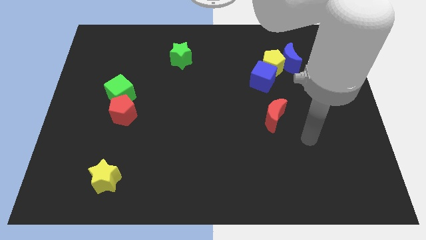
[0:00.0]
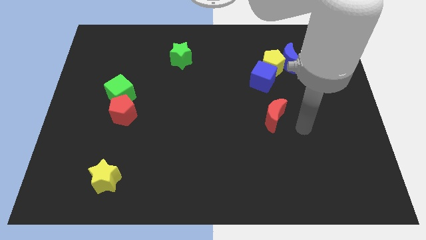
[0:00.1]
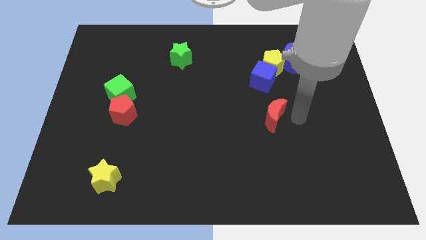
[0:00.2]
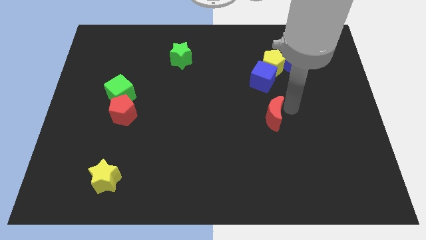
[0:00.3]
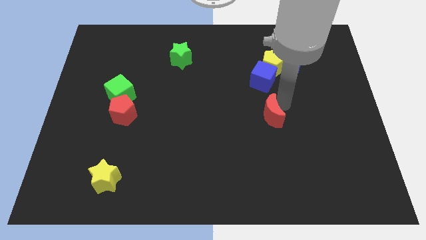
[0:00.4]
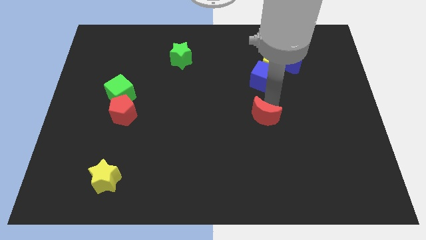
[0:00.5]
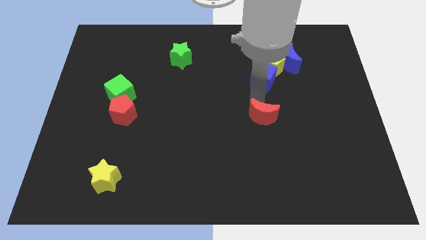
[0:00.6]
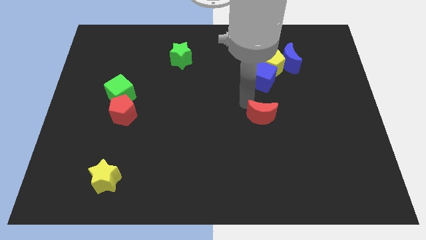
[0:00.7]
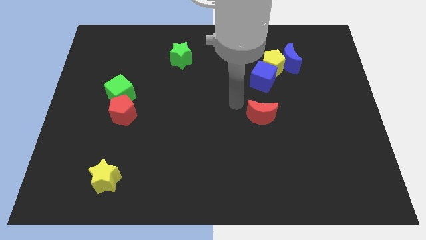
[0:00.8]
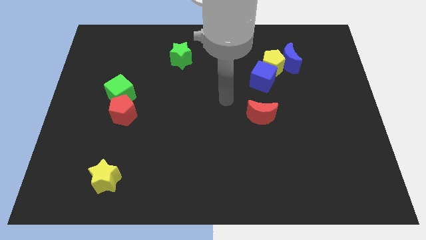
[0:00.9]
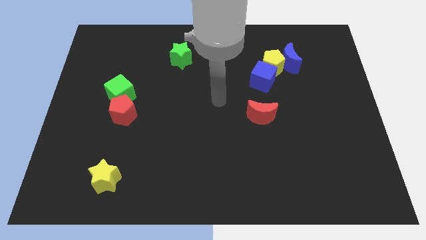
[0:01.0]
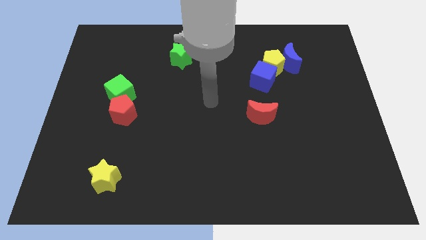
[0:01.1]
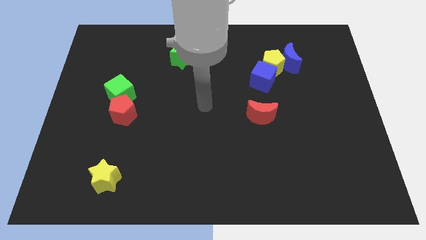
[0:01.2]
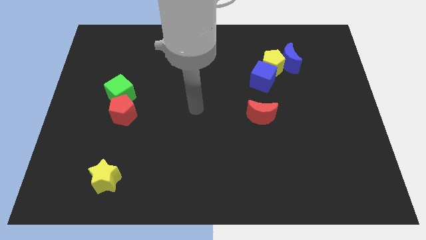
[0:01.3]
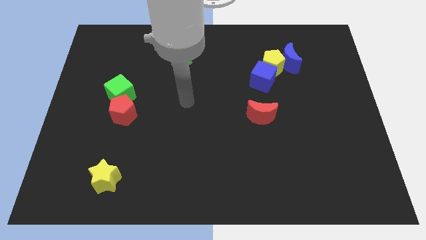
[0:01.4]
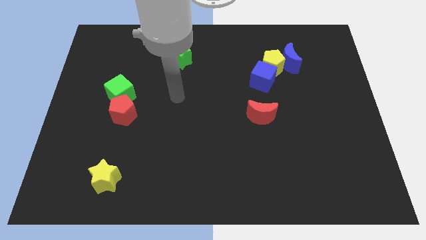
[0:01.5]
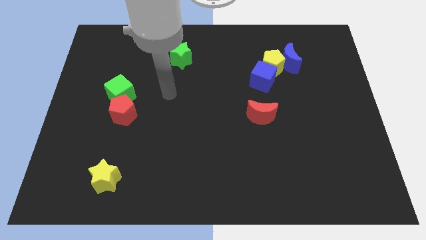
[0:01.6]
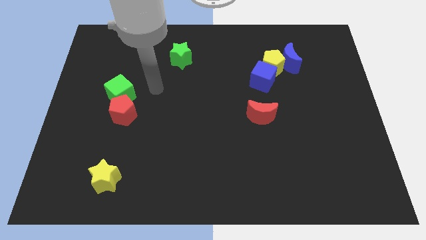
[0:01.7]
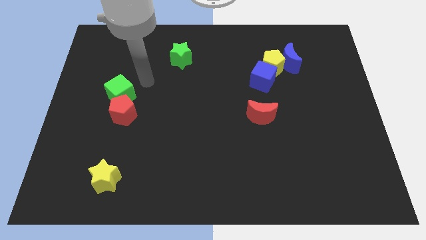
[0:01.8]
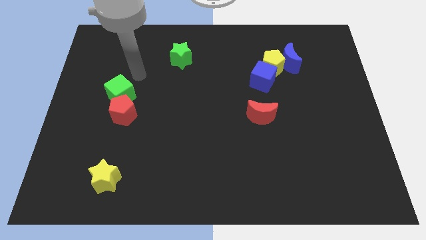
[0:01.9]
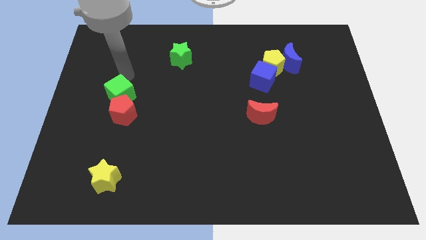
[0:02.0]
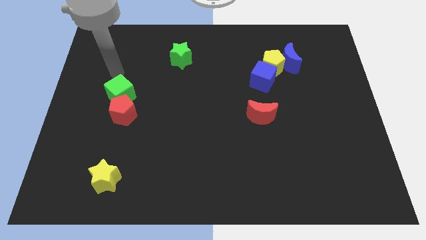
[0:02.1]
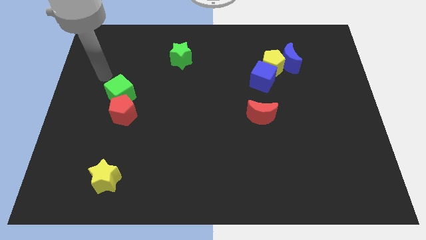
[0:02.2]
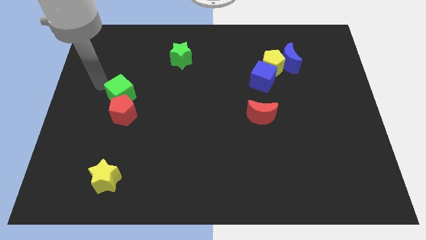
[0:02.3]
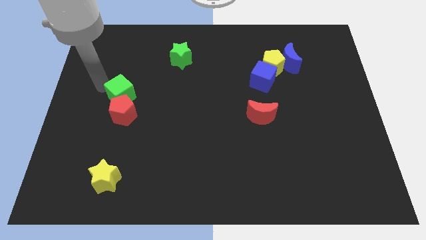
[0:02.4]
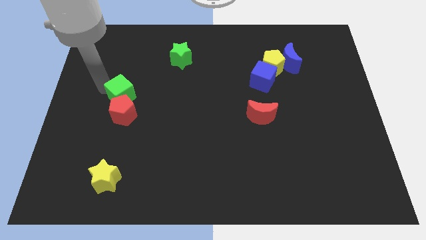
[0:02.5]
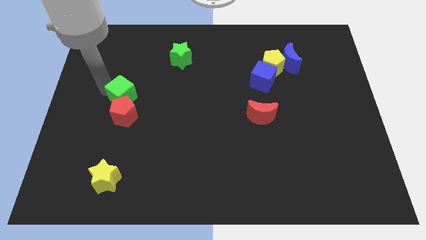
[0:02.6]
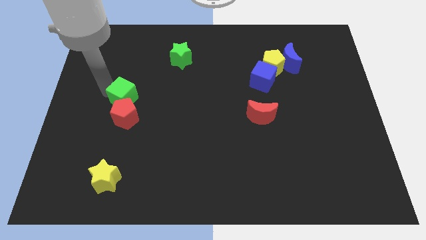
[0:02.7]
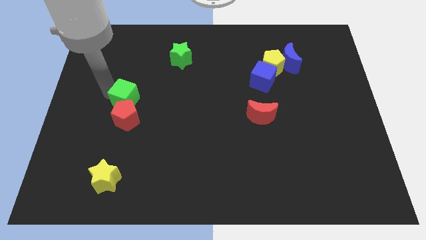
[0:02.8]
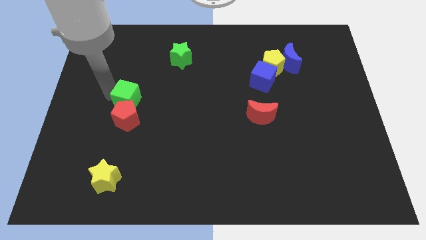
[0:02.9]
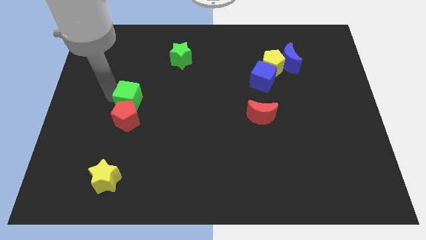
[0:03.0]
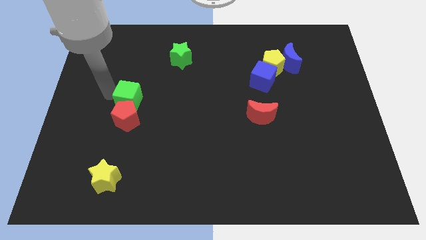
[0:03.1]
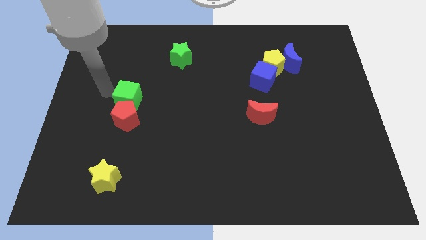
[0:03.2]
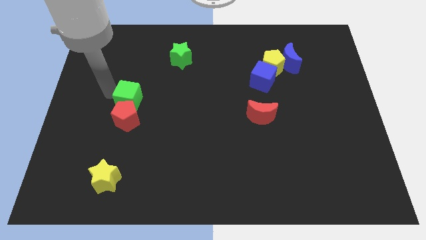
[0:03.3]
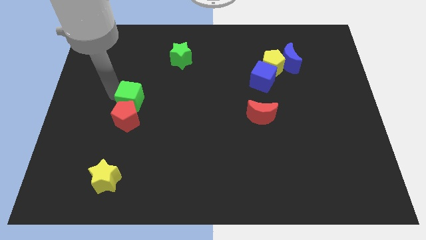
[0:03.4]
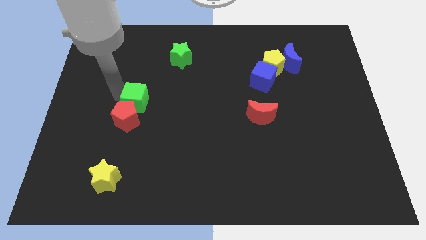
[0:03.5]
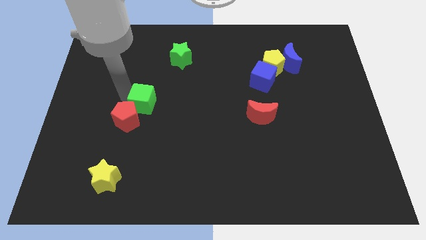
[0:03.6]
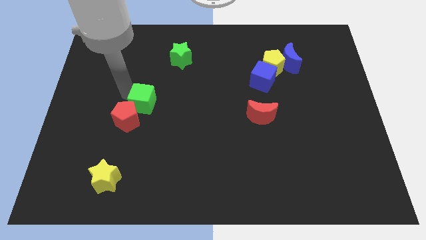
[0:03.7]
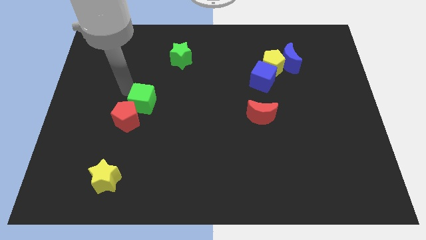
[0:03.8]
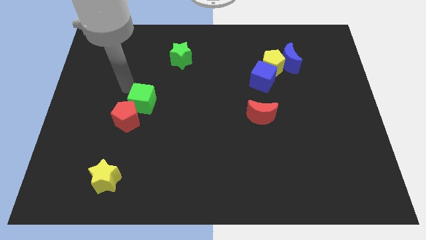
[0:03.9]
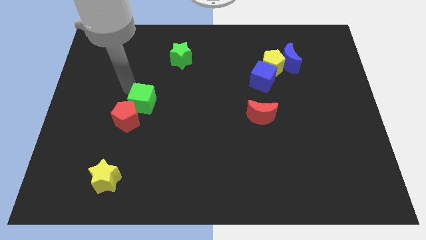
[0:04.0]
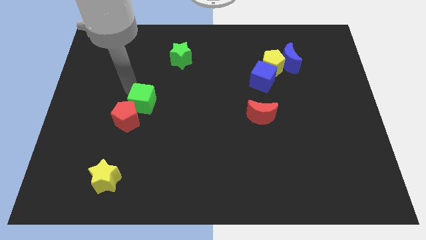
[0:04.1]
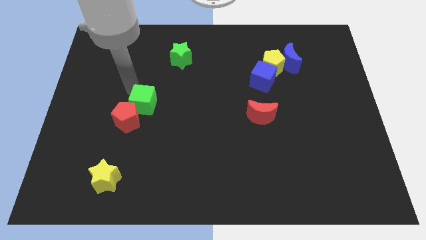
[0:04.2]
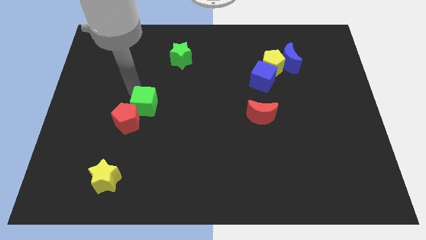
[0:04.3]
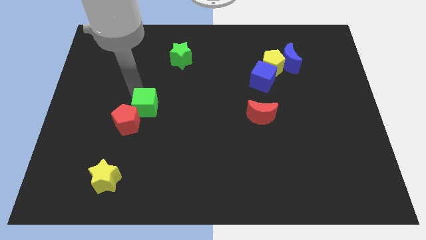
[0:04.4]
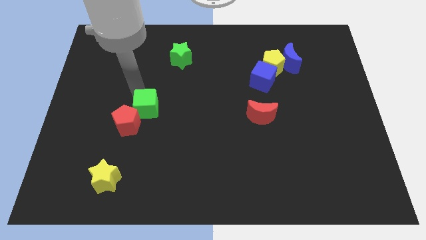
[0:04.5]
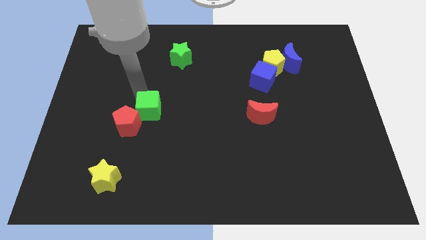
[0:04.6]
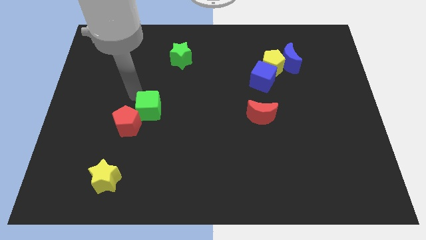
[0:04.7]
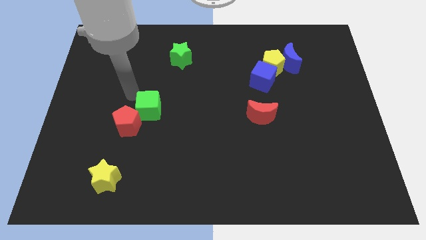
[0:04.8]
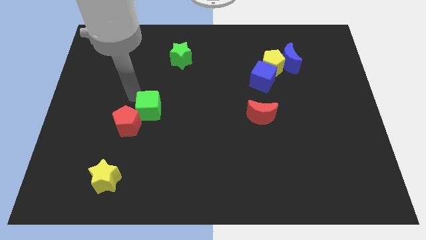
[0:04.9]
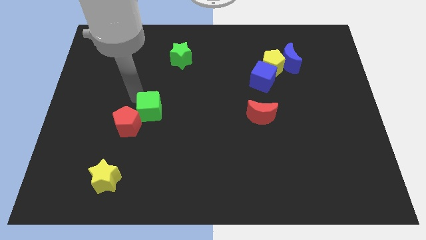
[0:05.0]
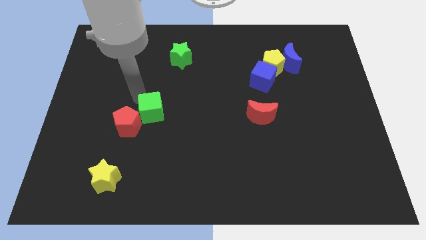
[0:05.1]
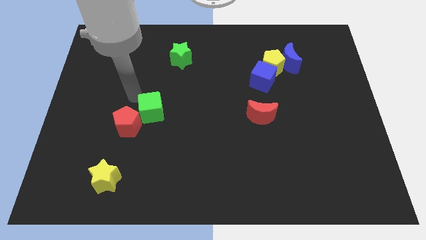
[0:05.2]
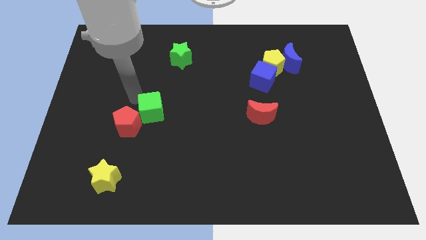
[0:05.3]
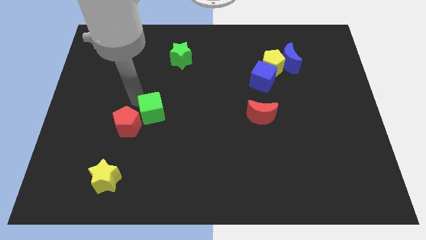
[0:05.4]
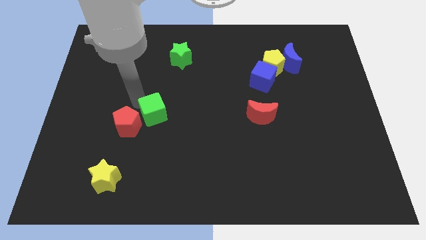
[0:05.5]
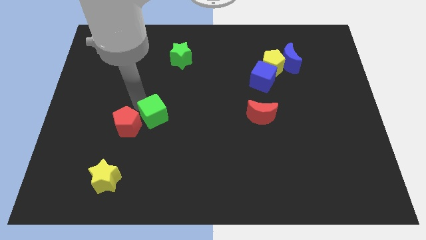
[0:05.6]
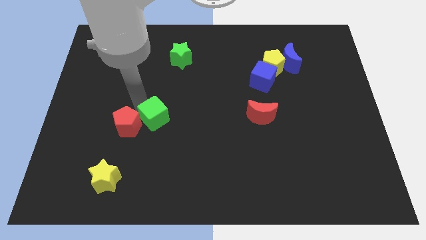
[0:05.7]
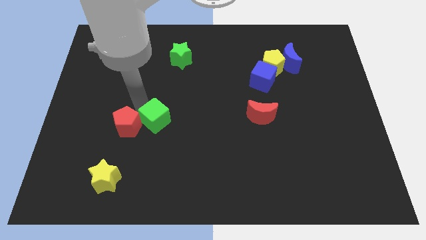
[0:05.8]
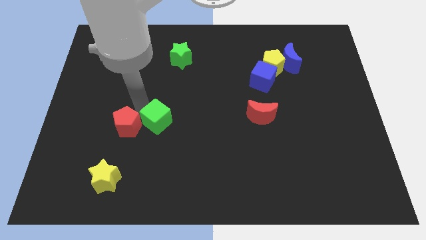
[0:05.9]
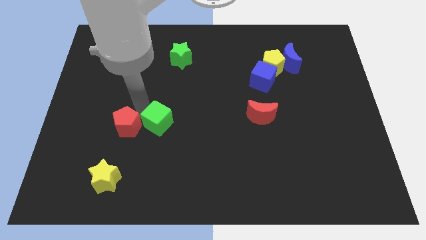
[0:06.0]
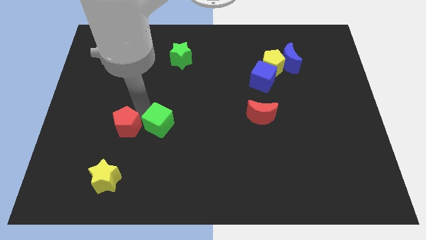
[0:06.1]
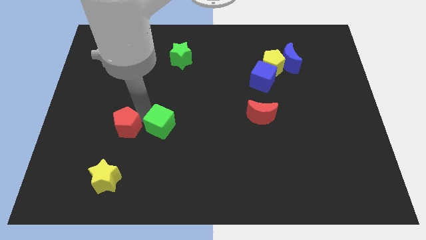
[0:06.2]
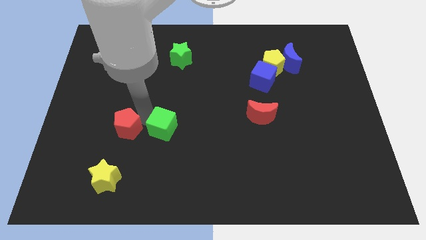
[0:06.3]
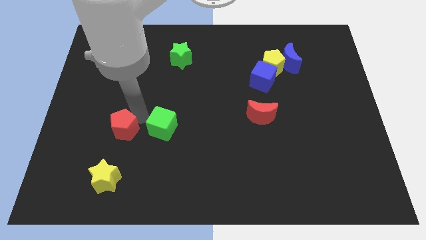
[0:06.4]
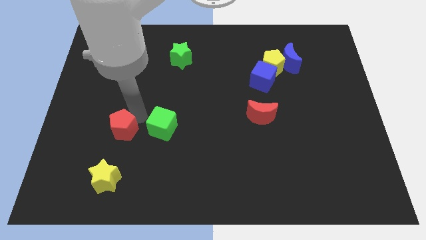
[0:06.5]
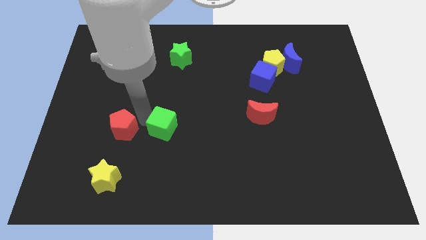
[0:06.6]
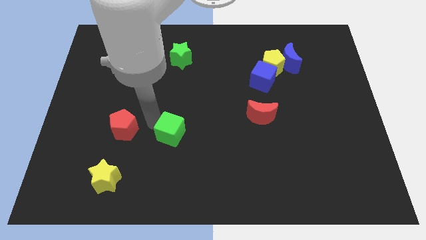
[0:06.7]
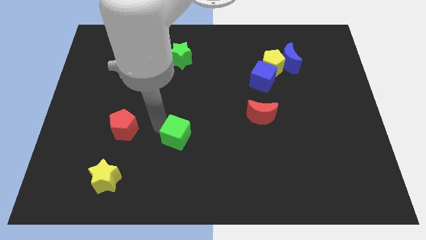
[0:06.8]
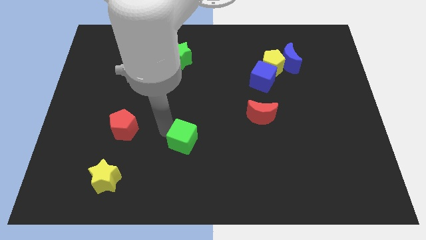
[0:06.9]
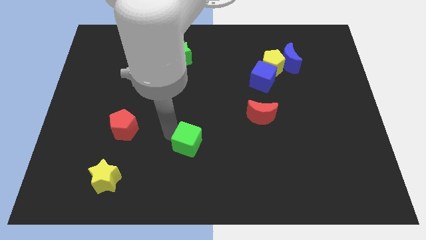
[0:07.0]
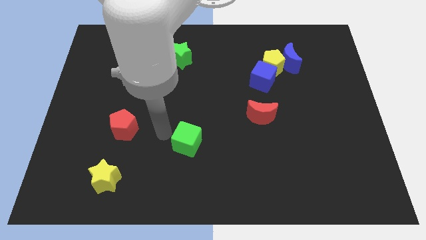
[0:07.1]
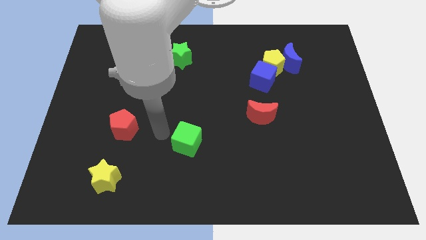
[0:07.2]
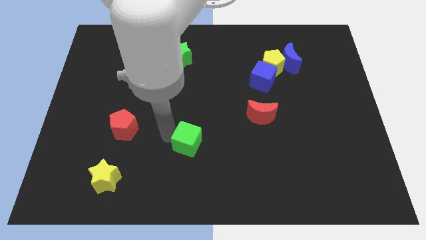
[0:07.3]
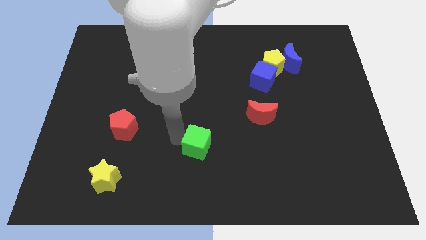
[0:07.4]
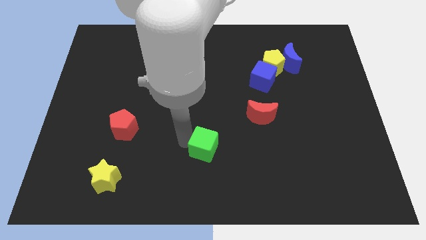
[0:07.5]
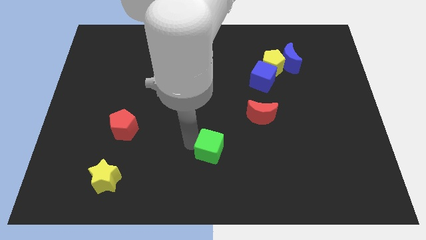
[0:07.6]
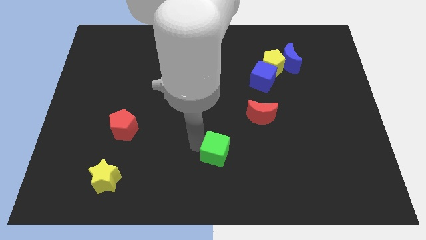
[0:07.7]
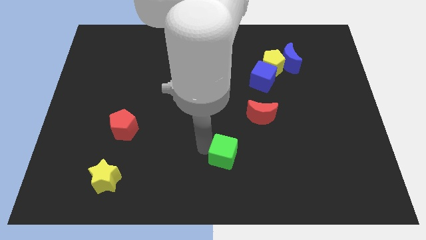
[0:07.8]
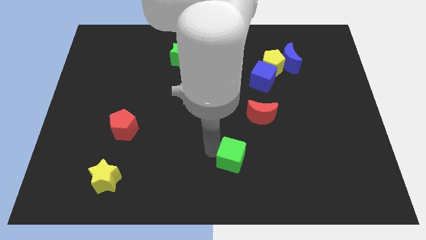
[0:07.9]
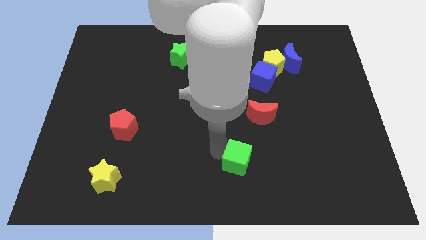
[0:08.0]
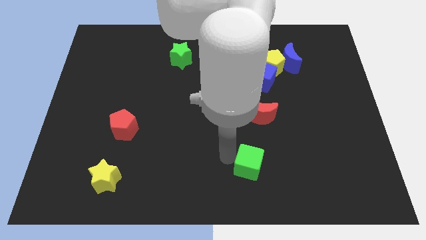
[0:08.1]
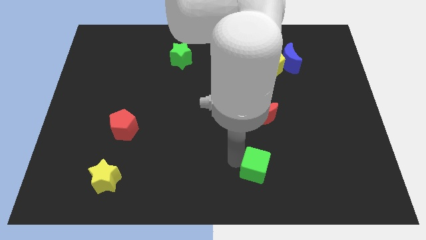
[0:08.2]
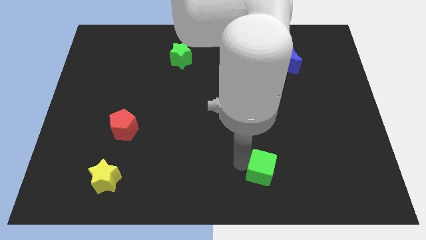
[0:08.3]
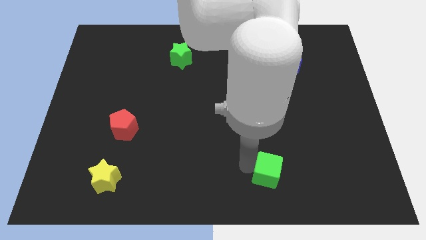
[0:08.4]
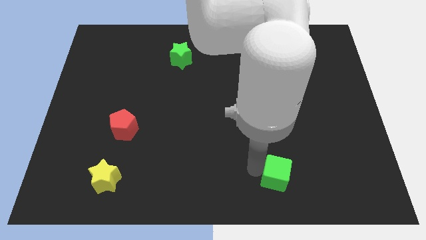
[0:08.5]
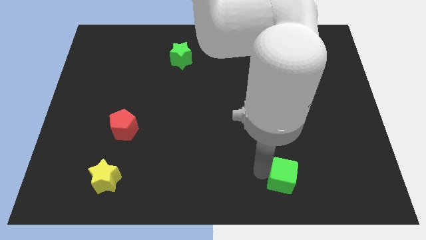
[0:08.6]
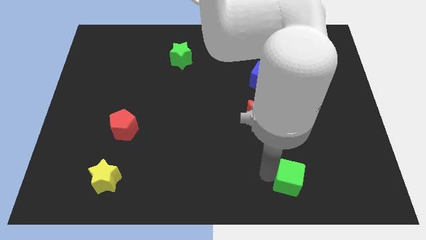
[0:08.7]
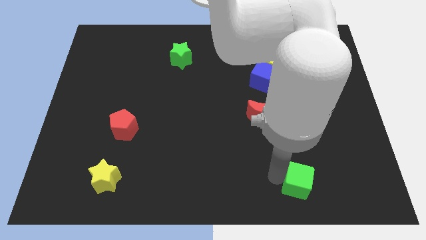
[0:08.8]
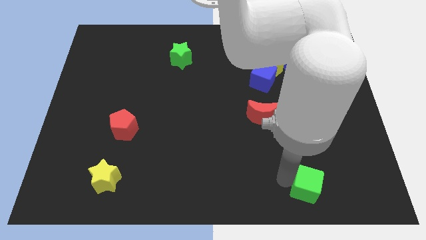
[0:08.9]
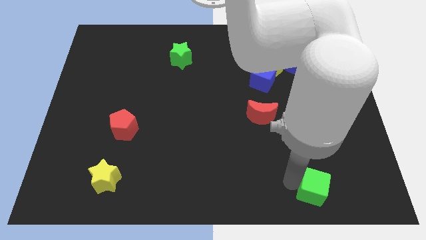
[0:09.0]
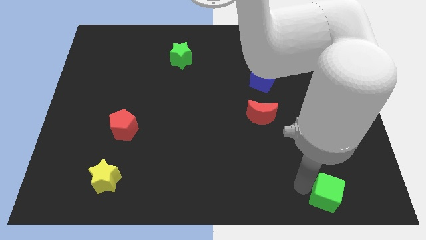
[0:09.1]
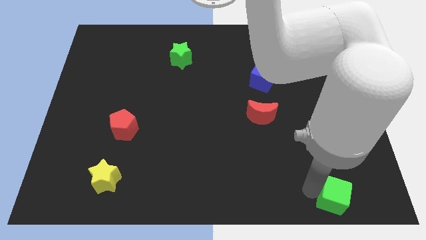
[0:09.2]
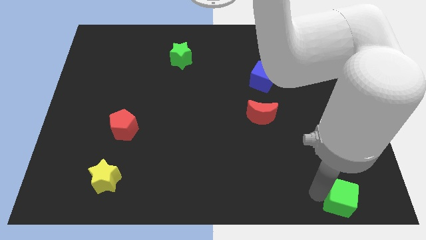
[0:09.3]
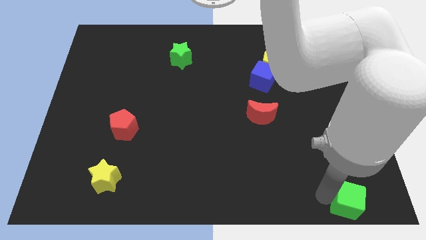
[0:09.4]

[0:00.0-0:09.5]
put the green cube to the bottom right of the board
